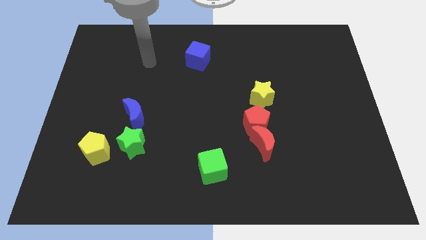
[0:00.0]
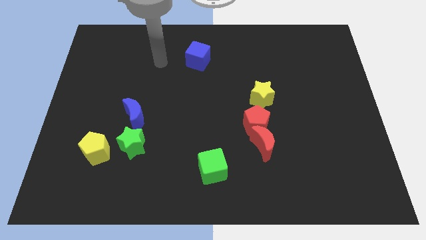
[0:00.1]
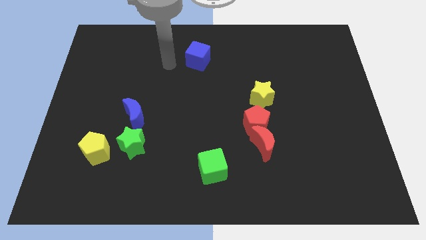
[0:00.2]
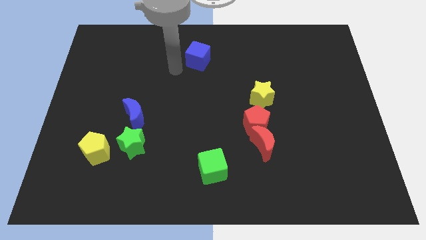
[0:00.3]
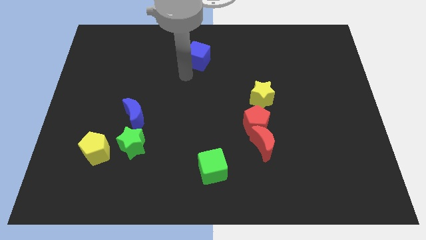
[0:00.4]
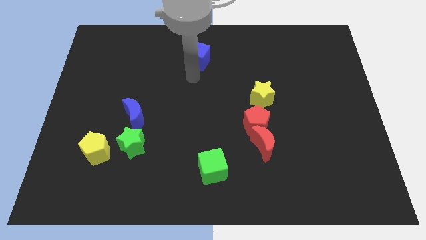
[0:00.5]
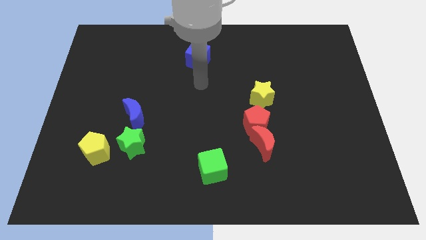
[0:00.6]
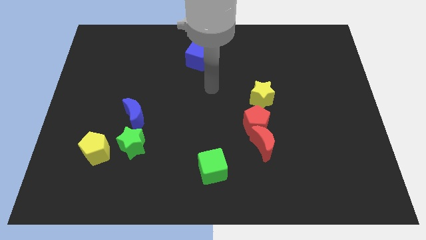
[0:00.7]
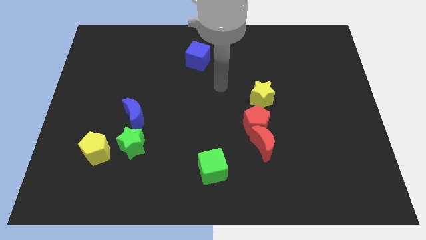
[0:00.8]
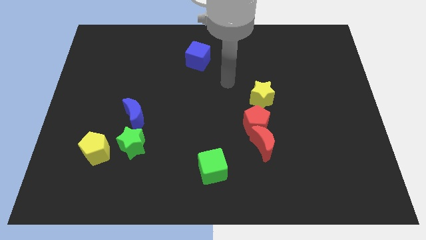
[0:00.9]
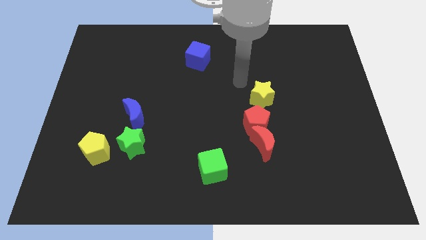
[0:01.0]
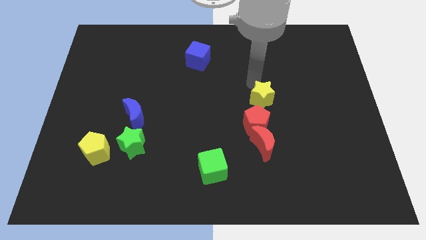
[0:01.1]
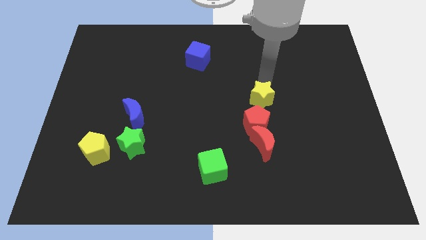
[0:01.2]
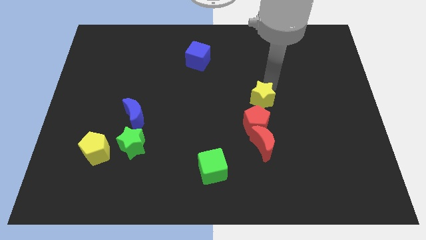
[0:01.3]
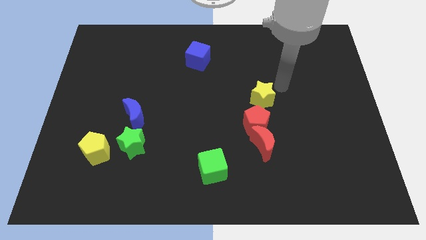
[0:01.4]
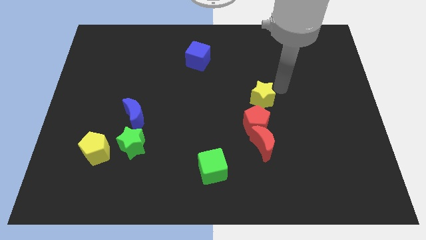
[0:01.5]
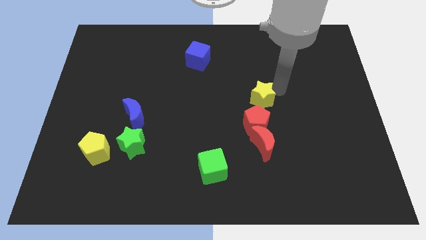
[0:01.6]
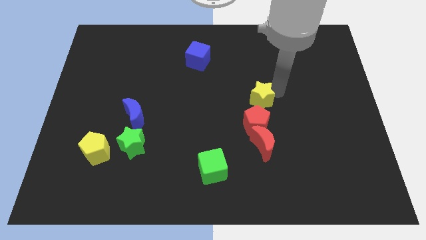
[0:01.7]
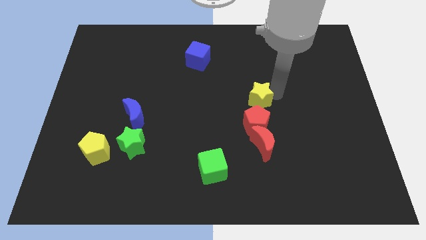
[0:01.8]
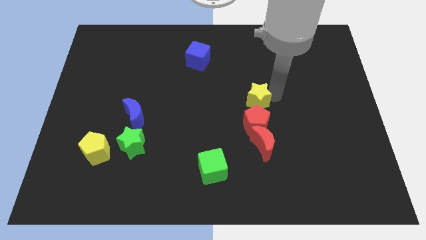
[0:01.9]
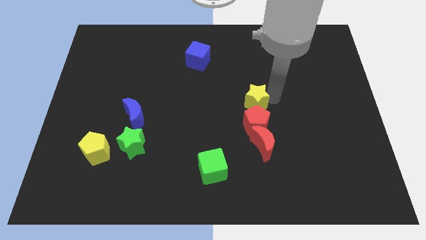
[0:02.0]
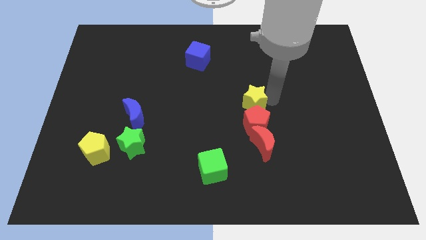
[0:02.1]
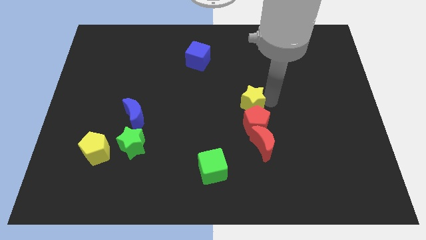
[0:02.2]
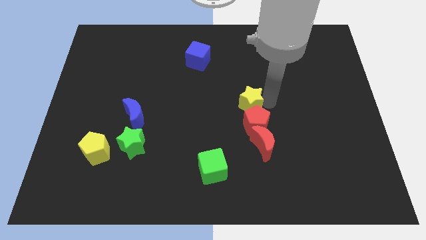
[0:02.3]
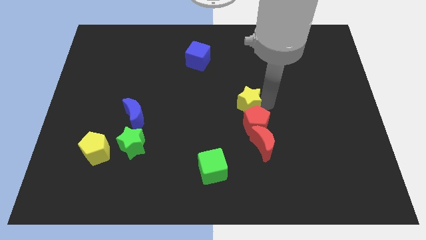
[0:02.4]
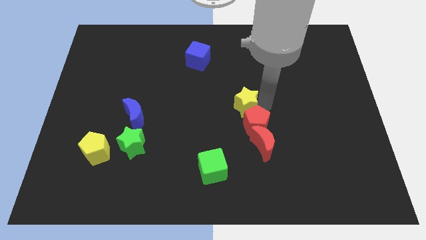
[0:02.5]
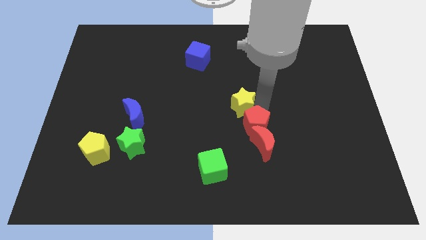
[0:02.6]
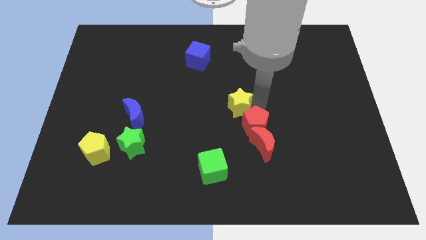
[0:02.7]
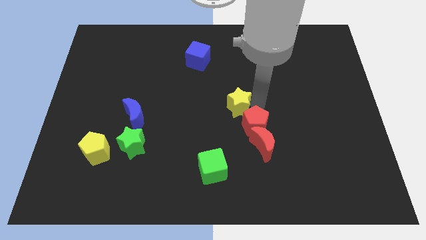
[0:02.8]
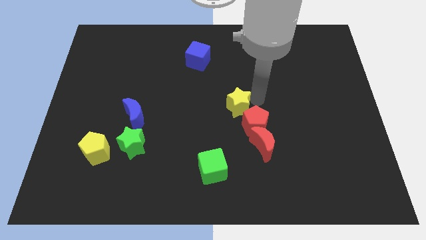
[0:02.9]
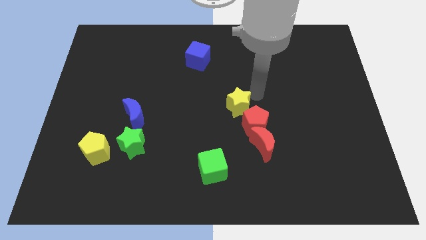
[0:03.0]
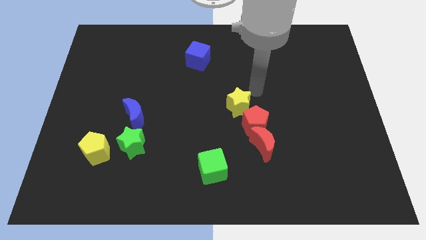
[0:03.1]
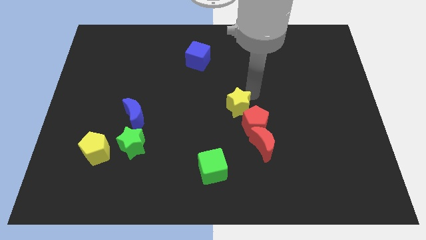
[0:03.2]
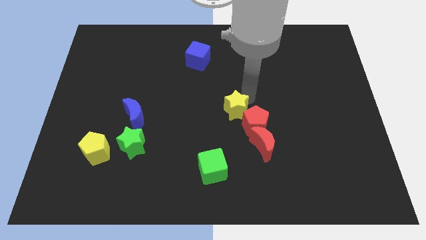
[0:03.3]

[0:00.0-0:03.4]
slightly move the yellow star downwards and left

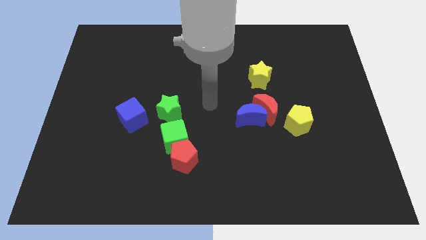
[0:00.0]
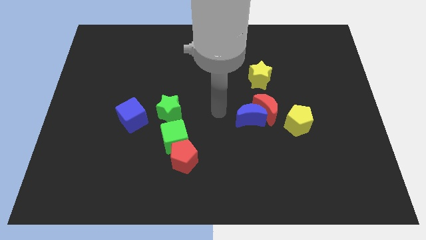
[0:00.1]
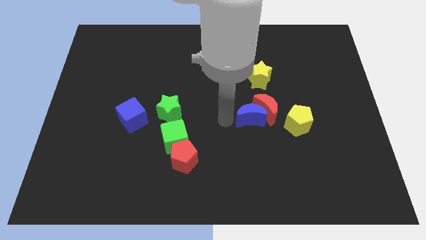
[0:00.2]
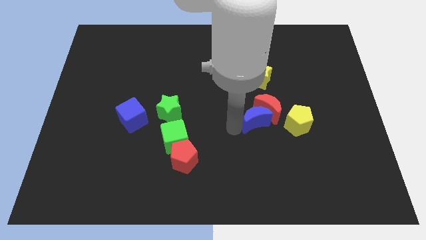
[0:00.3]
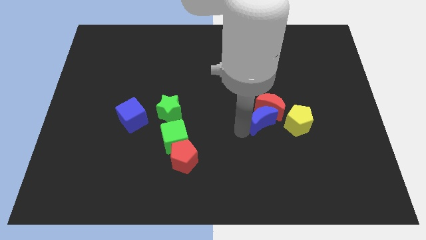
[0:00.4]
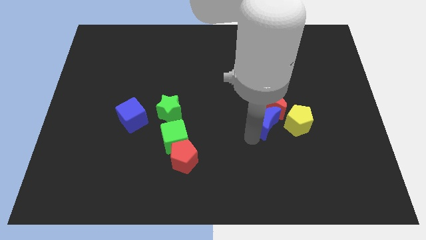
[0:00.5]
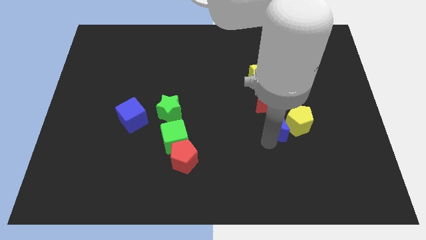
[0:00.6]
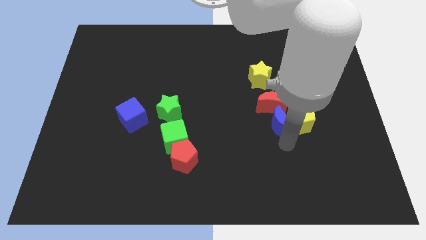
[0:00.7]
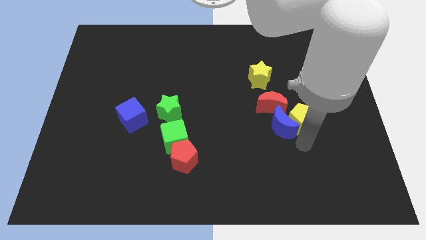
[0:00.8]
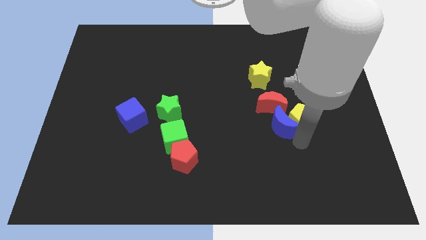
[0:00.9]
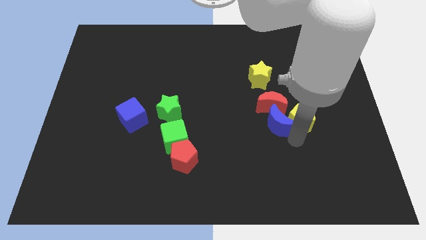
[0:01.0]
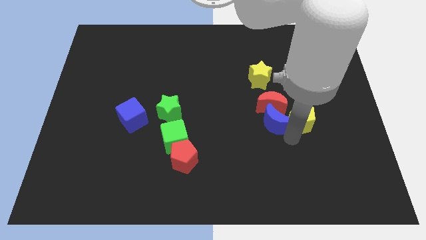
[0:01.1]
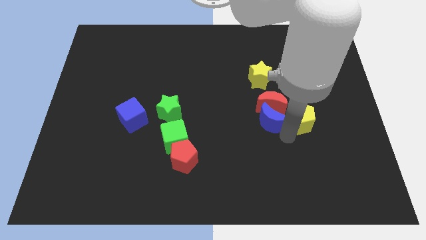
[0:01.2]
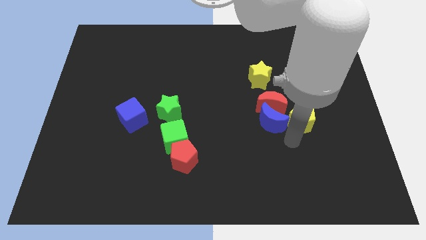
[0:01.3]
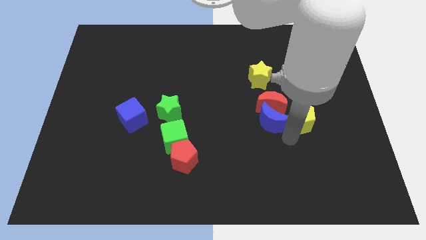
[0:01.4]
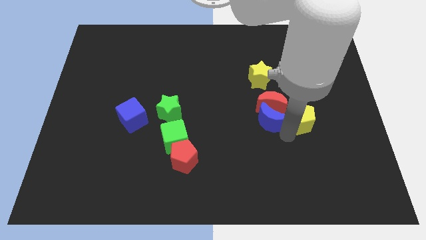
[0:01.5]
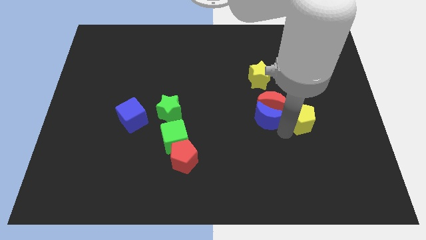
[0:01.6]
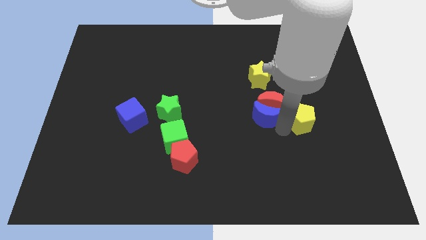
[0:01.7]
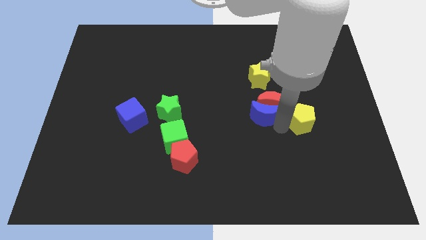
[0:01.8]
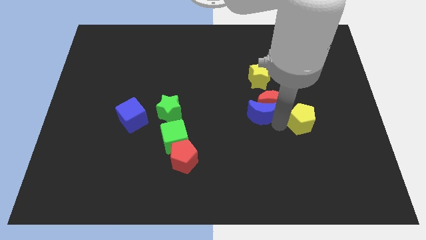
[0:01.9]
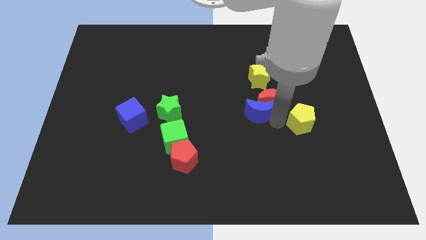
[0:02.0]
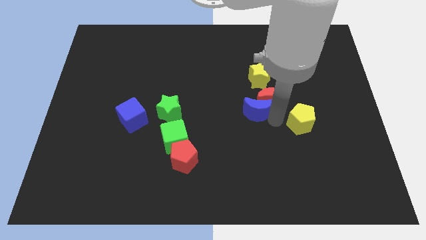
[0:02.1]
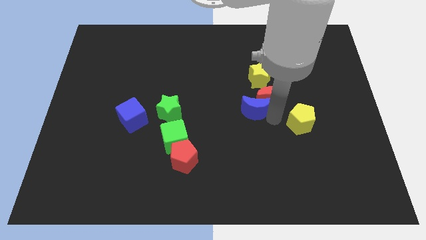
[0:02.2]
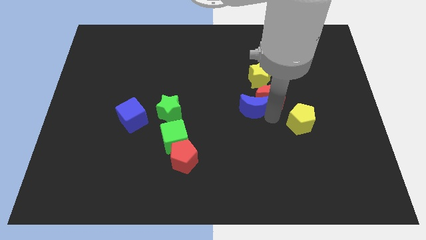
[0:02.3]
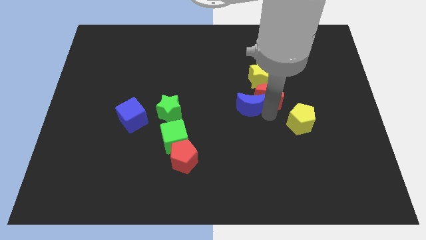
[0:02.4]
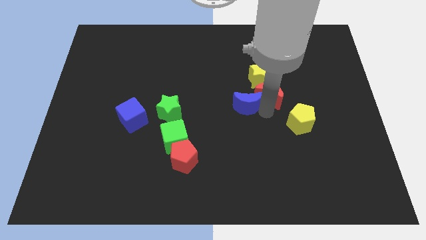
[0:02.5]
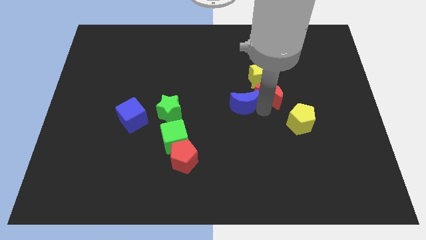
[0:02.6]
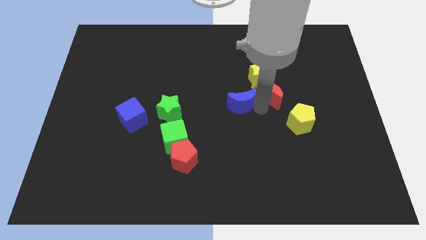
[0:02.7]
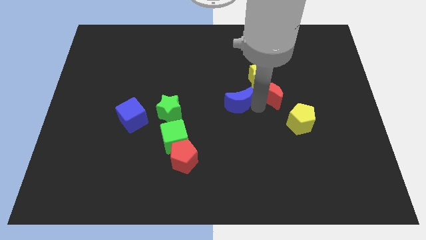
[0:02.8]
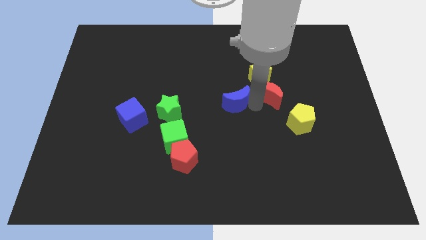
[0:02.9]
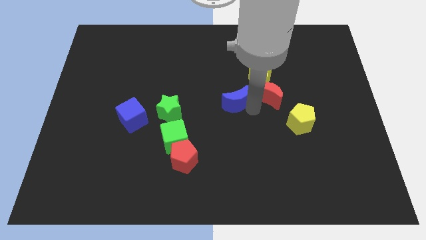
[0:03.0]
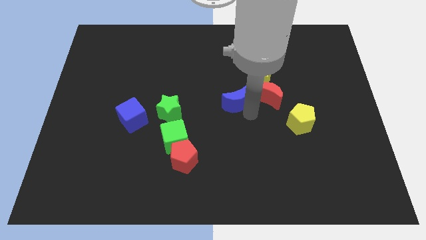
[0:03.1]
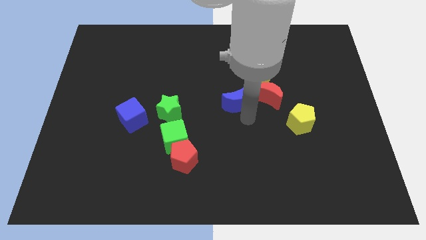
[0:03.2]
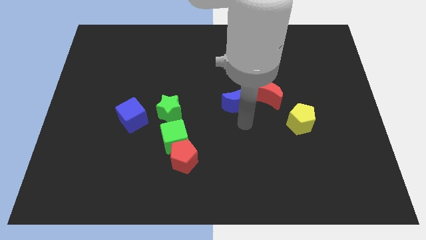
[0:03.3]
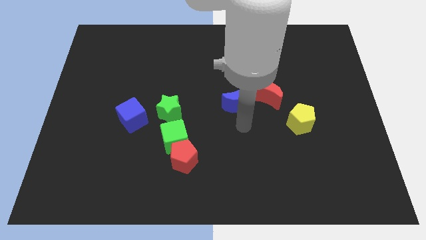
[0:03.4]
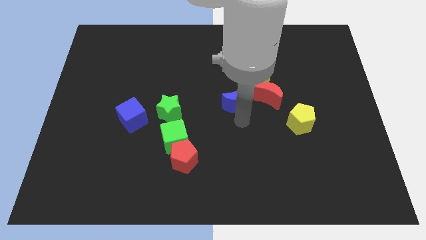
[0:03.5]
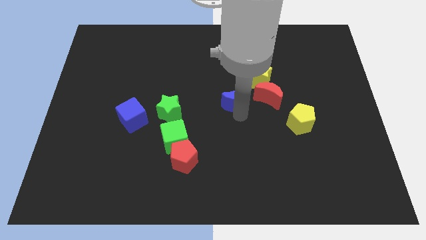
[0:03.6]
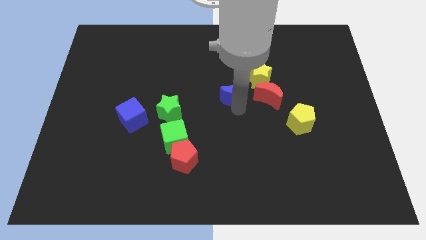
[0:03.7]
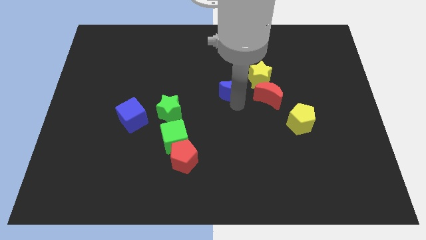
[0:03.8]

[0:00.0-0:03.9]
move the blue moon slightly up
